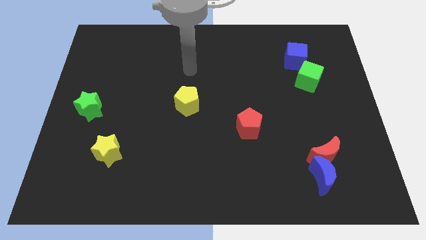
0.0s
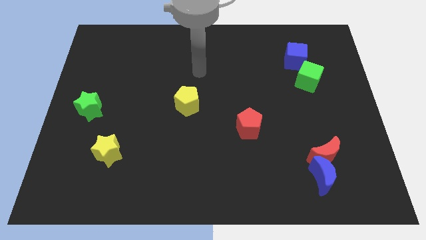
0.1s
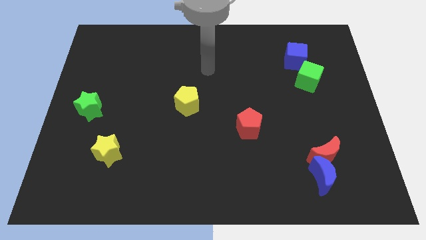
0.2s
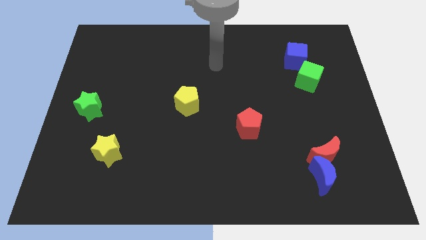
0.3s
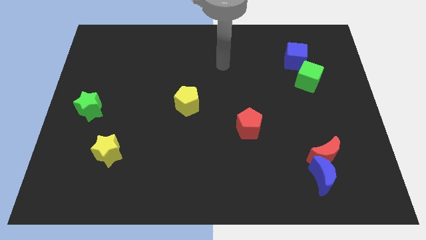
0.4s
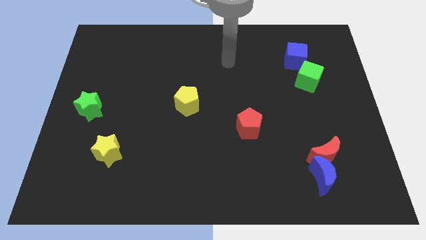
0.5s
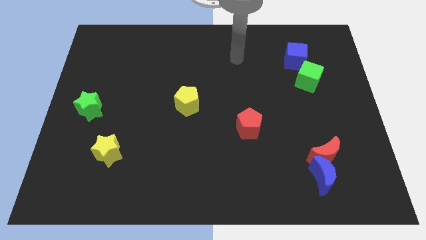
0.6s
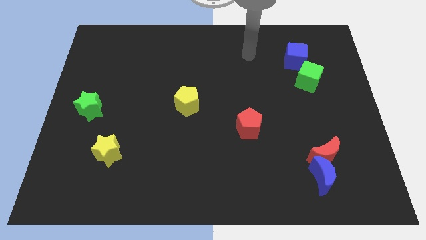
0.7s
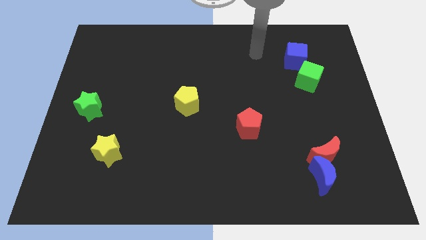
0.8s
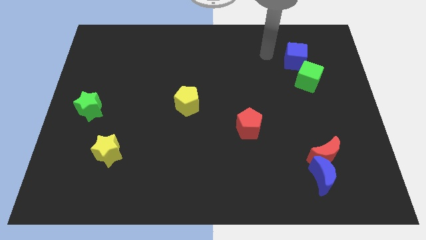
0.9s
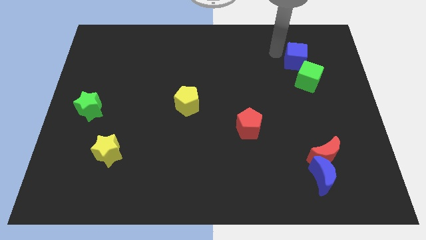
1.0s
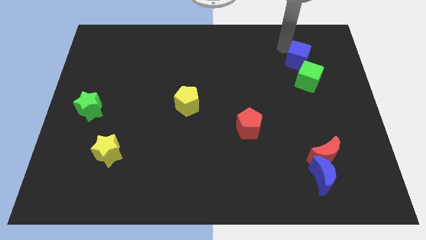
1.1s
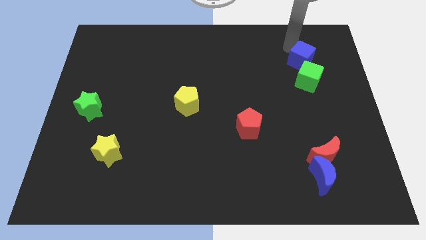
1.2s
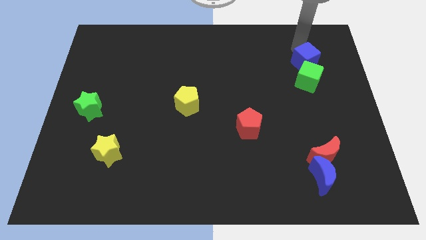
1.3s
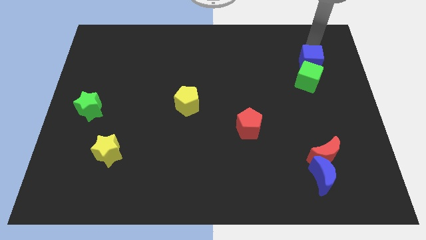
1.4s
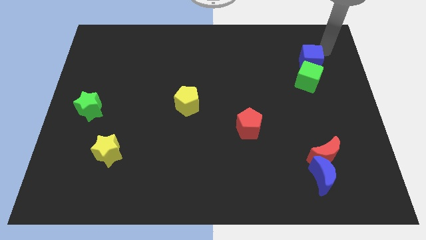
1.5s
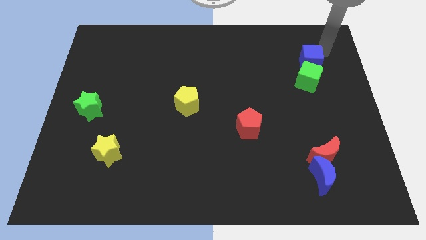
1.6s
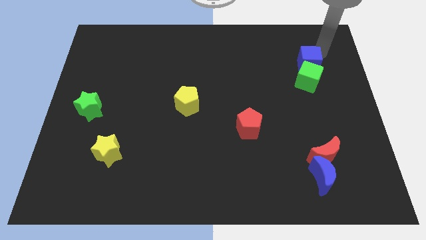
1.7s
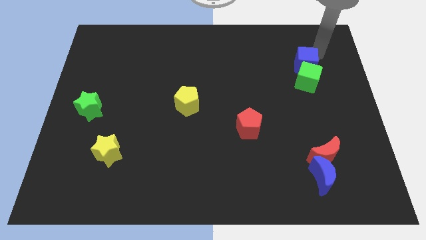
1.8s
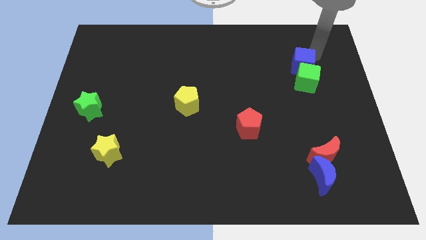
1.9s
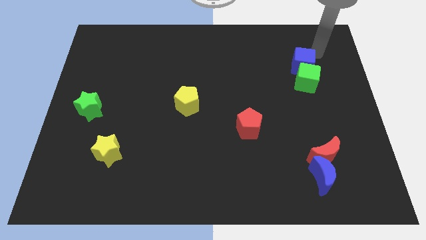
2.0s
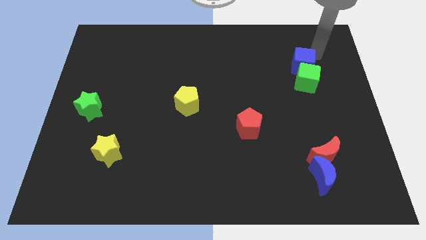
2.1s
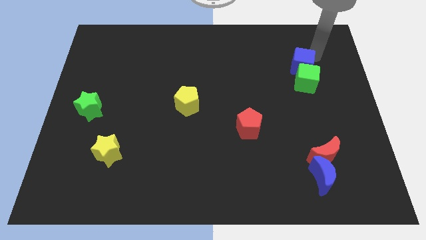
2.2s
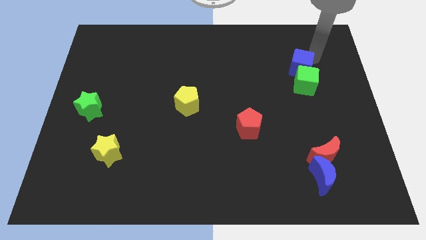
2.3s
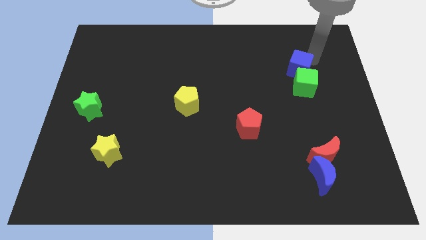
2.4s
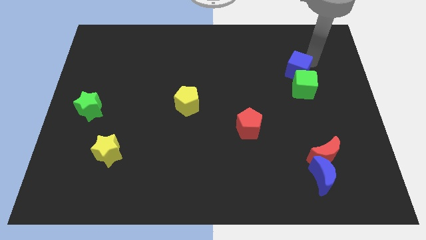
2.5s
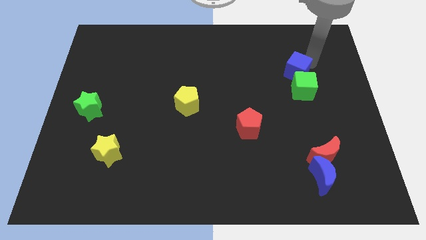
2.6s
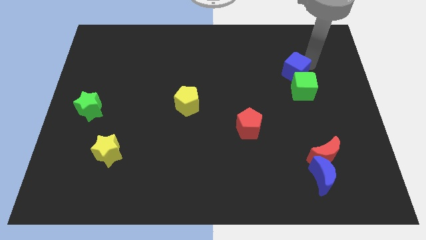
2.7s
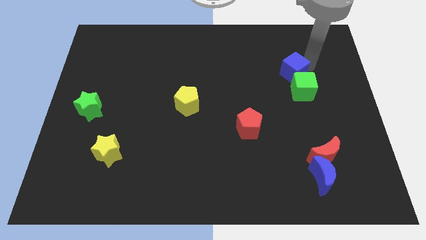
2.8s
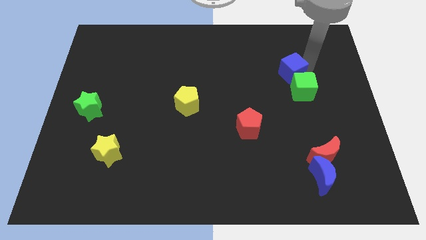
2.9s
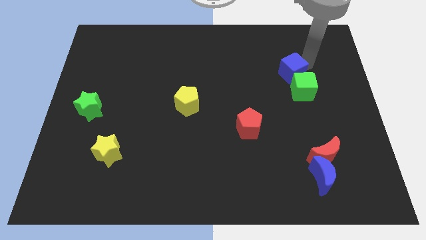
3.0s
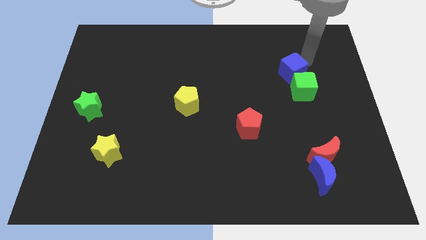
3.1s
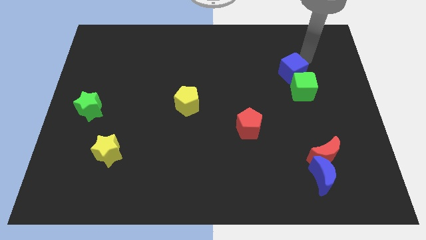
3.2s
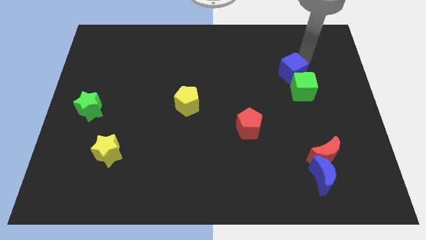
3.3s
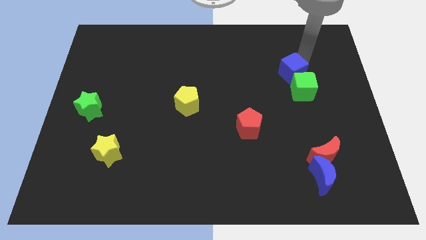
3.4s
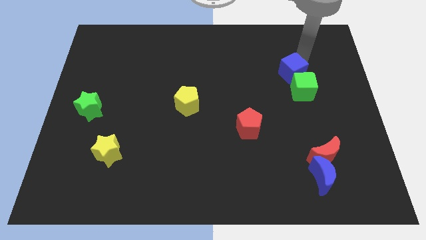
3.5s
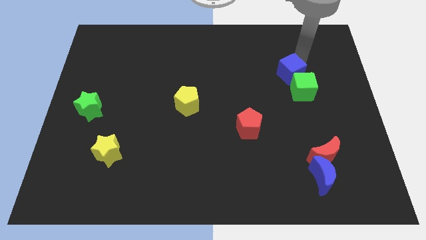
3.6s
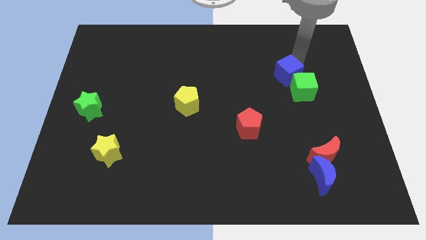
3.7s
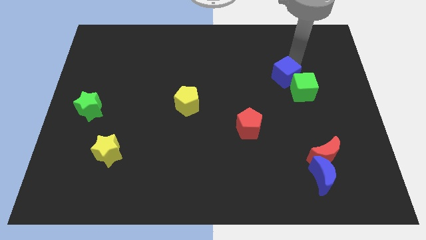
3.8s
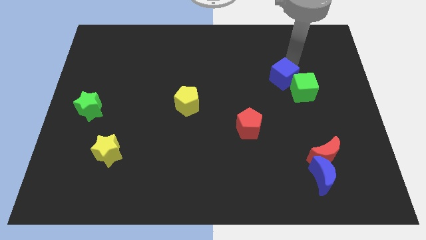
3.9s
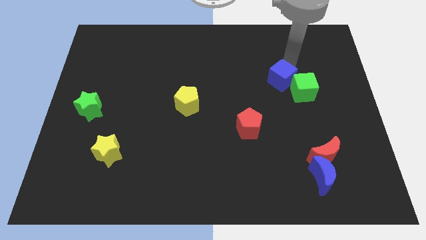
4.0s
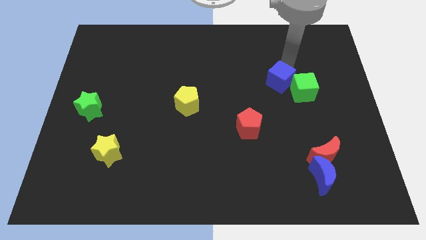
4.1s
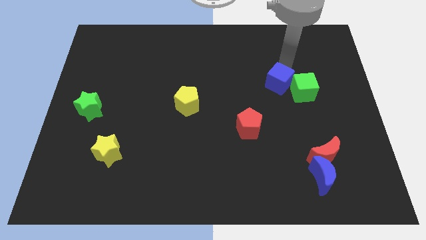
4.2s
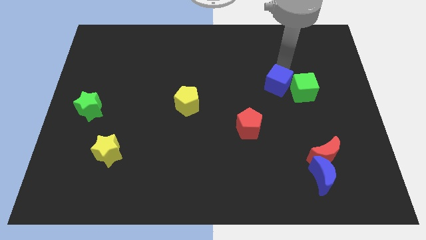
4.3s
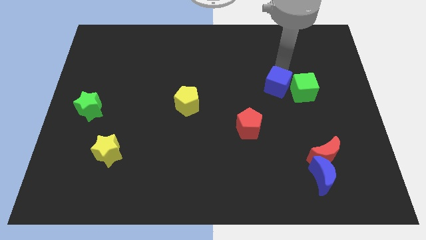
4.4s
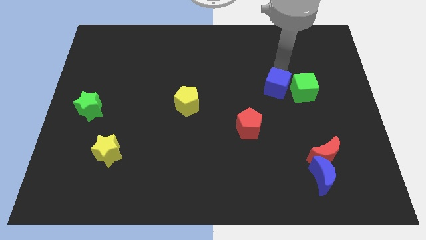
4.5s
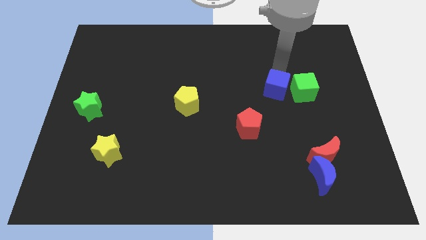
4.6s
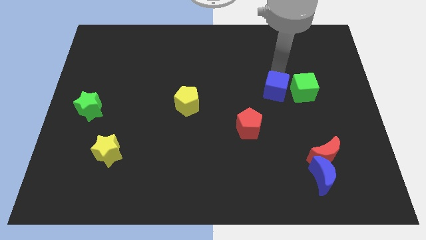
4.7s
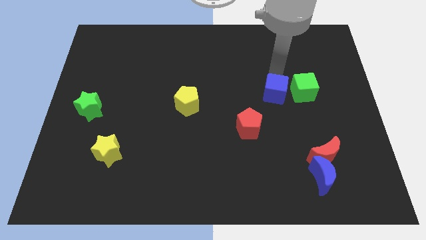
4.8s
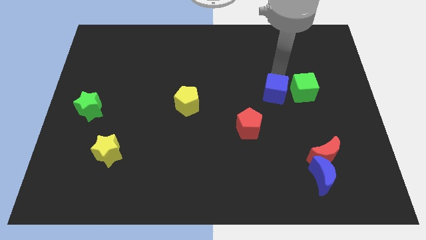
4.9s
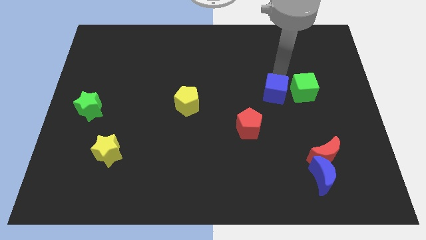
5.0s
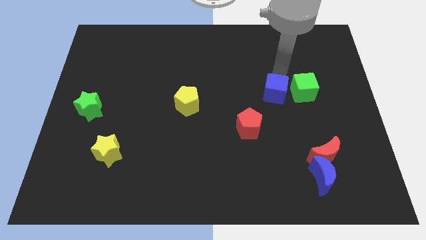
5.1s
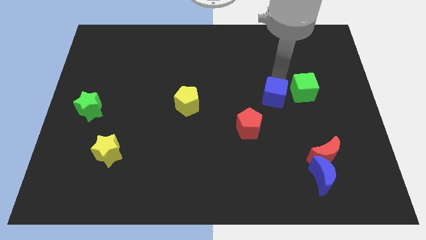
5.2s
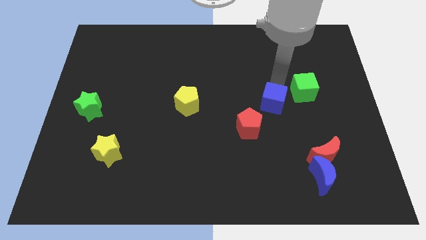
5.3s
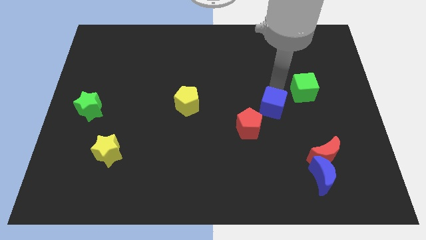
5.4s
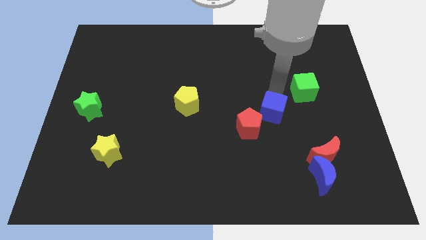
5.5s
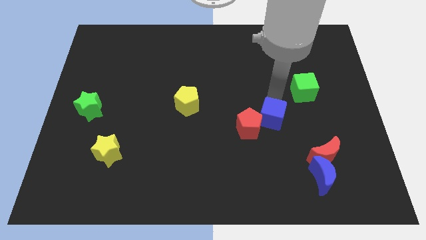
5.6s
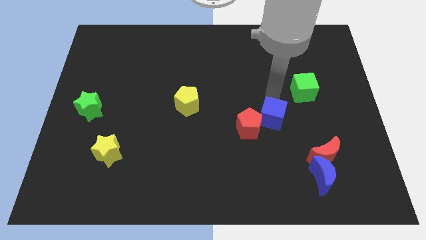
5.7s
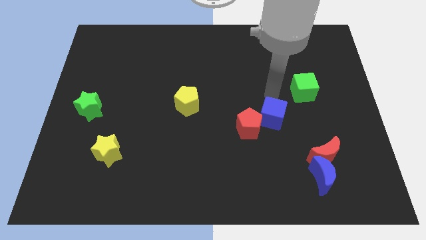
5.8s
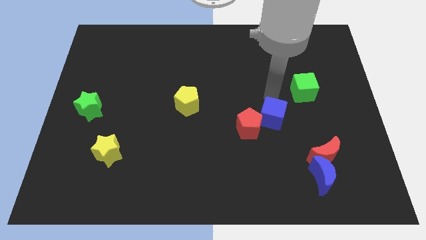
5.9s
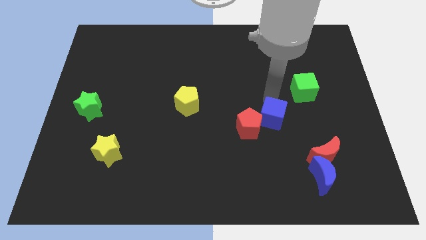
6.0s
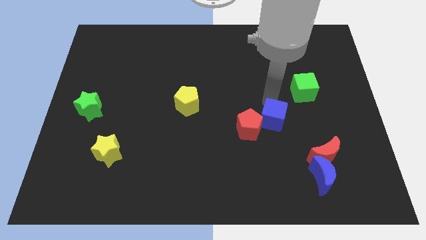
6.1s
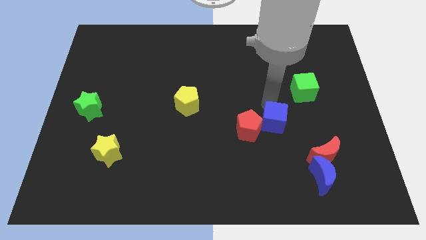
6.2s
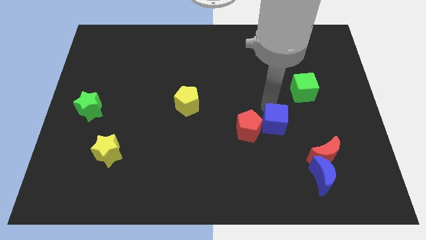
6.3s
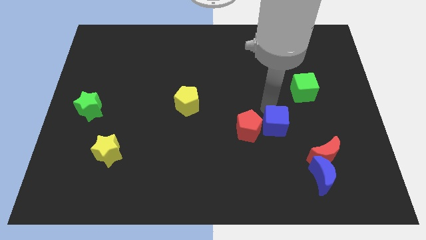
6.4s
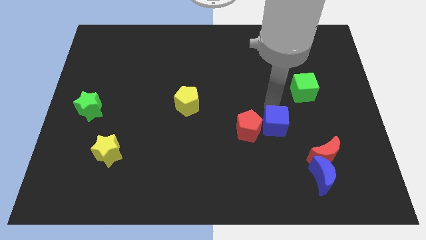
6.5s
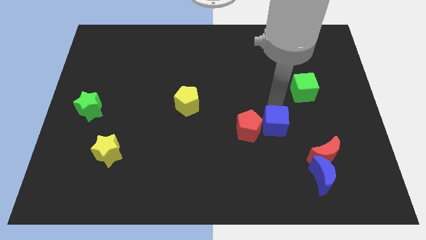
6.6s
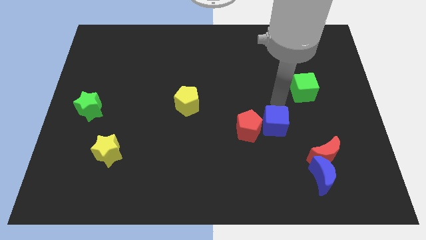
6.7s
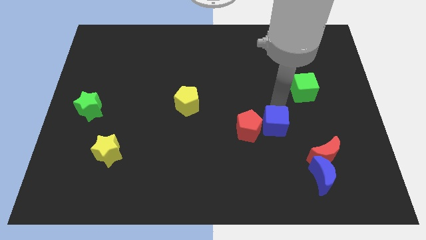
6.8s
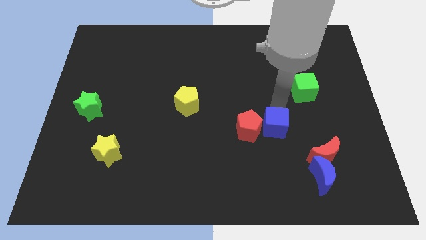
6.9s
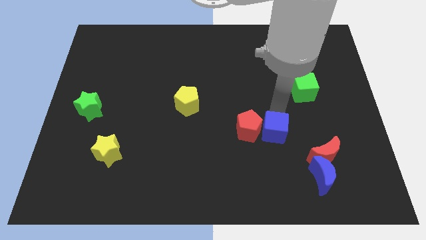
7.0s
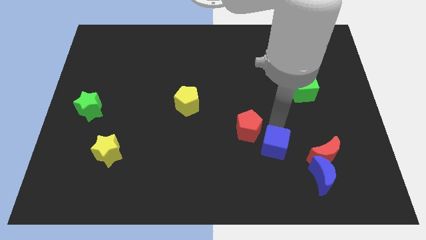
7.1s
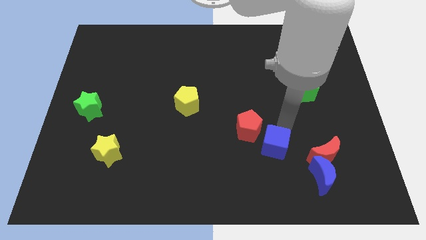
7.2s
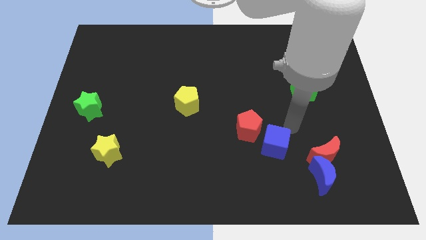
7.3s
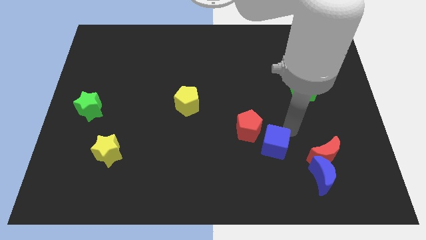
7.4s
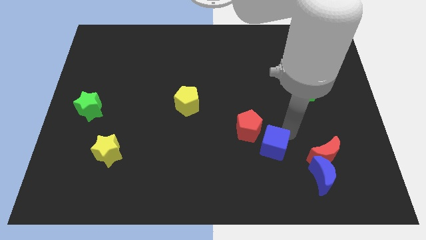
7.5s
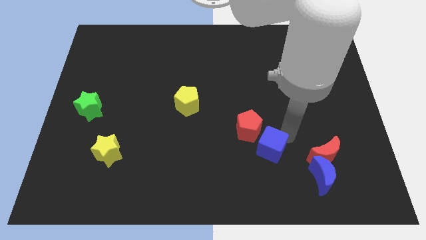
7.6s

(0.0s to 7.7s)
move the blue cube to the bottom of the red pentagon
